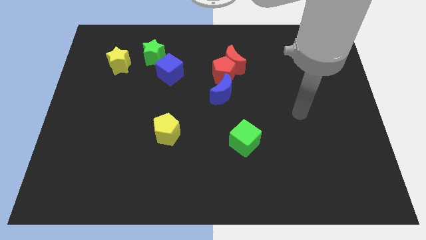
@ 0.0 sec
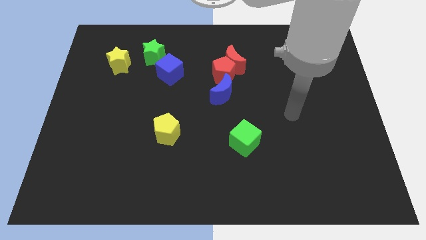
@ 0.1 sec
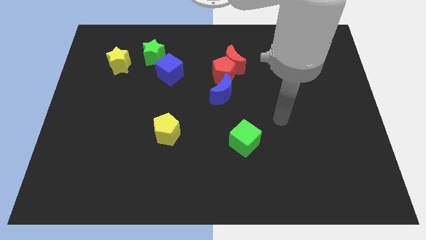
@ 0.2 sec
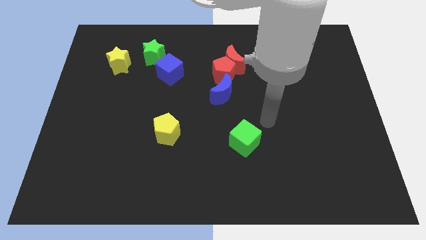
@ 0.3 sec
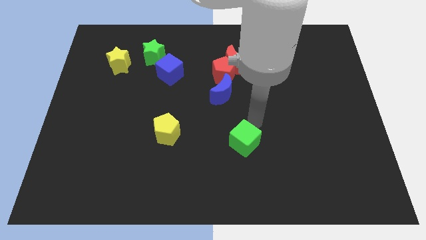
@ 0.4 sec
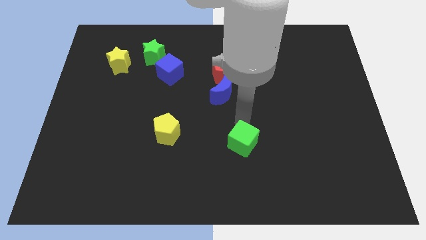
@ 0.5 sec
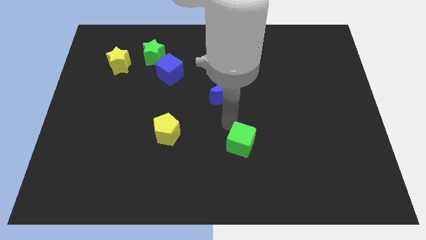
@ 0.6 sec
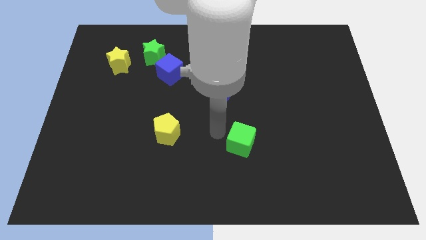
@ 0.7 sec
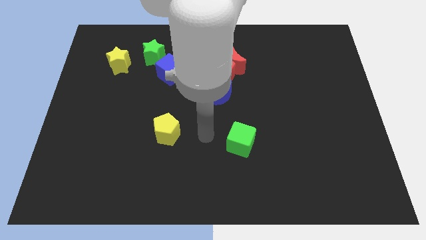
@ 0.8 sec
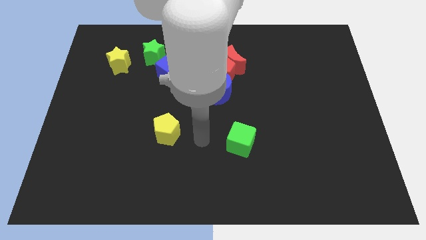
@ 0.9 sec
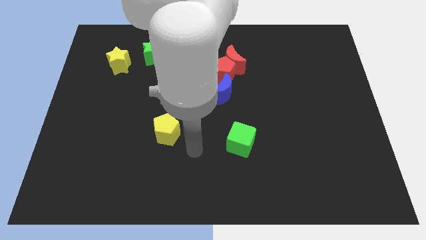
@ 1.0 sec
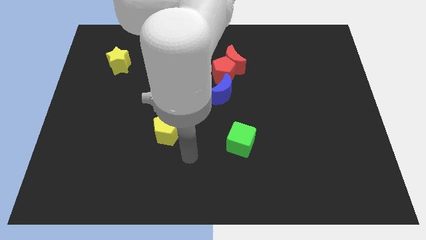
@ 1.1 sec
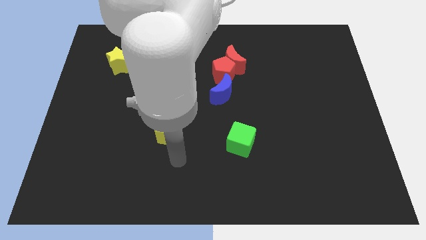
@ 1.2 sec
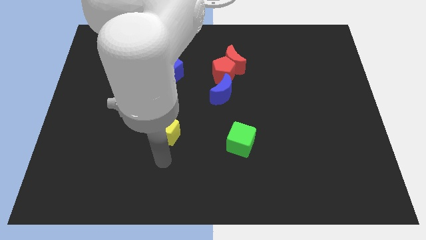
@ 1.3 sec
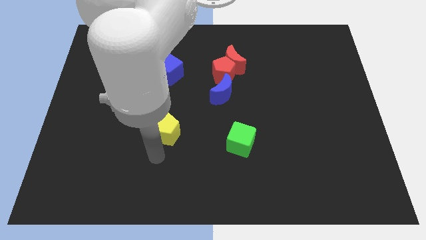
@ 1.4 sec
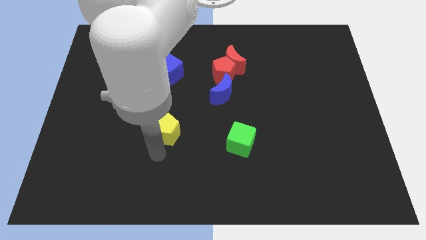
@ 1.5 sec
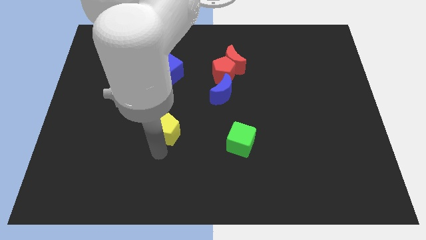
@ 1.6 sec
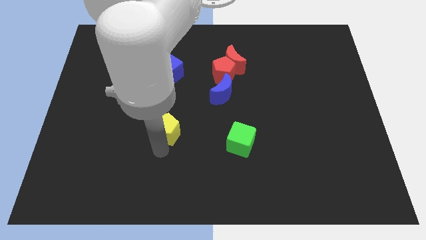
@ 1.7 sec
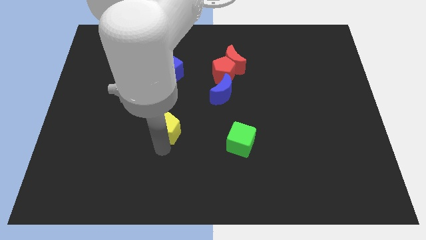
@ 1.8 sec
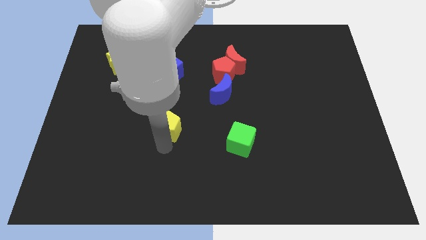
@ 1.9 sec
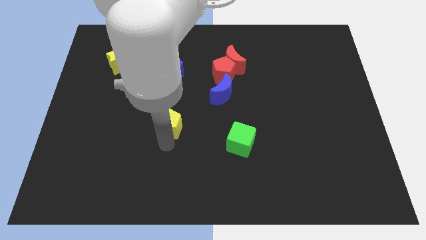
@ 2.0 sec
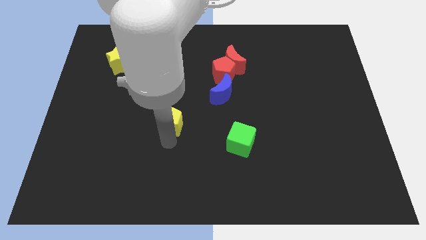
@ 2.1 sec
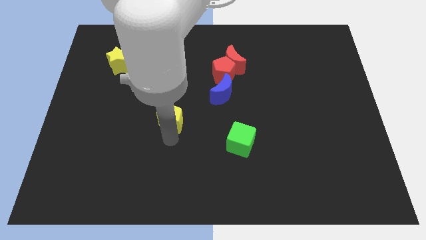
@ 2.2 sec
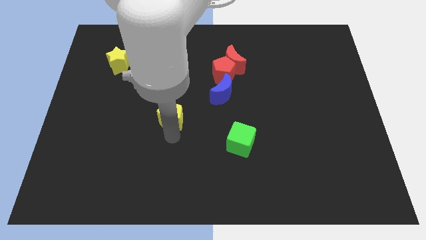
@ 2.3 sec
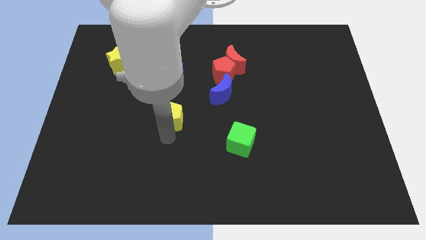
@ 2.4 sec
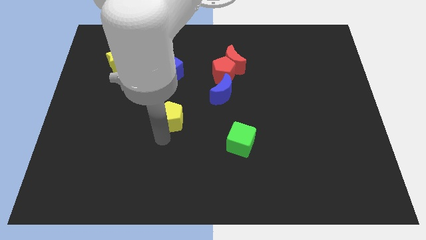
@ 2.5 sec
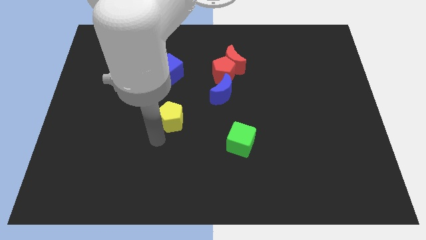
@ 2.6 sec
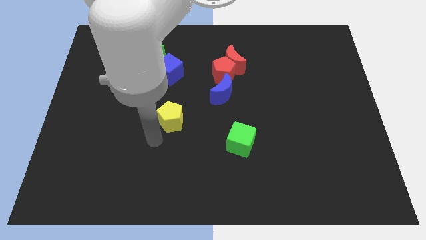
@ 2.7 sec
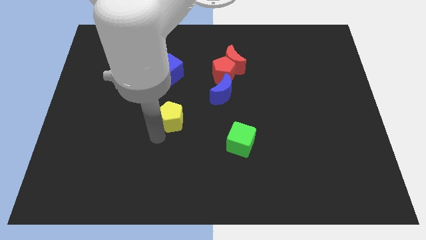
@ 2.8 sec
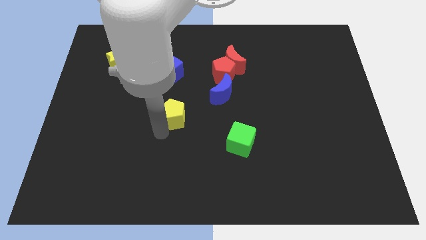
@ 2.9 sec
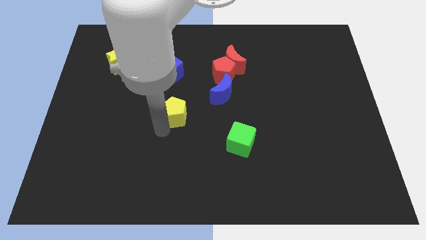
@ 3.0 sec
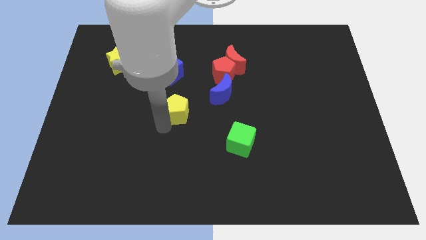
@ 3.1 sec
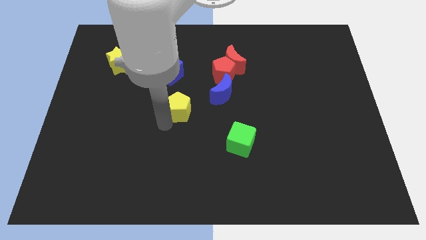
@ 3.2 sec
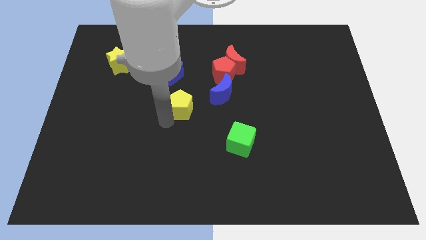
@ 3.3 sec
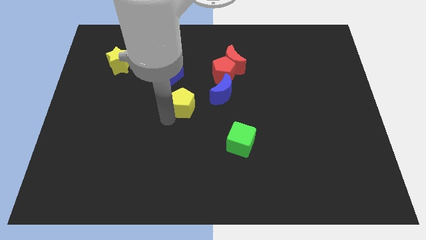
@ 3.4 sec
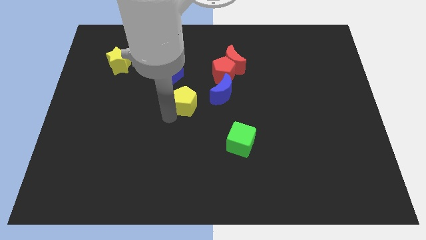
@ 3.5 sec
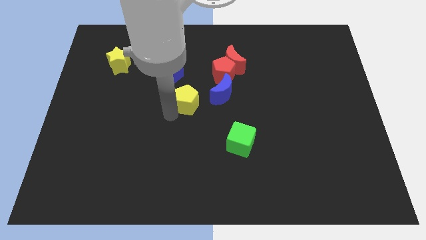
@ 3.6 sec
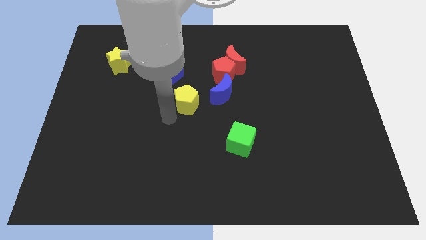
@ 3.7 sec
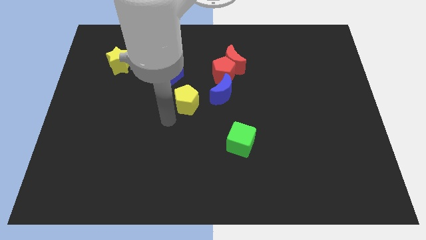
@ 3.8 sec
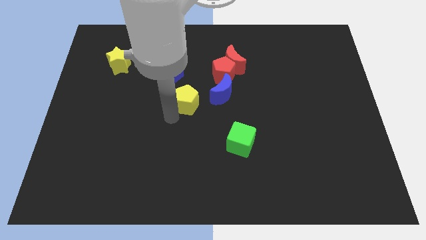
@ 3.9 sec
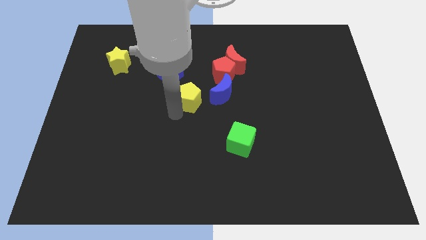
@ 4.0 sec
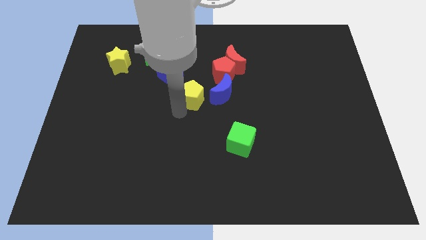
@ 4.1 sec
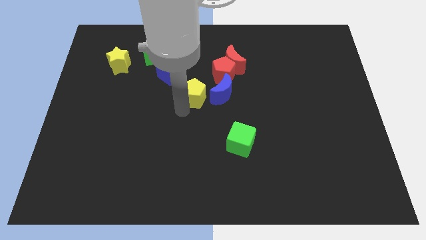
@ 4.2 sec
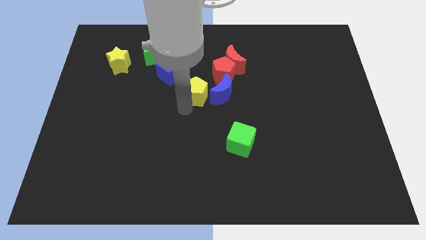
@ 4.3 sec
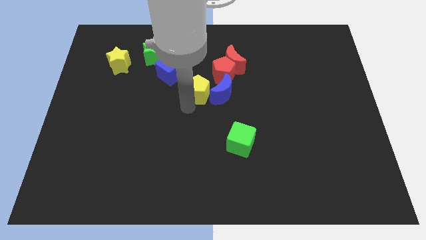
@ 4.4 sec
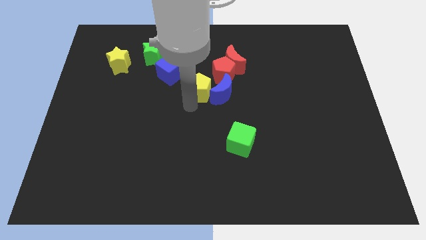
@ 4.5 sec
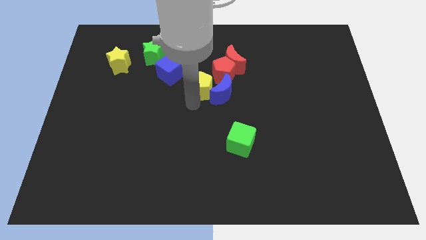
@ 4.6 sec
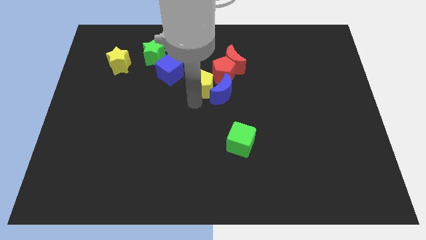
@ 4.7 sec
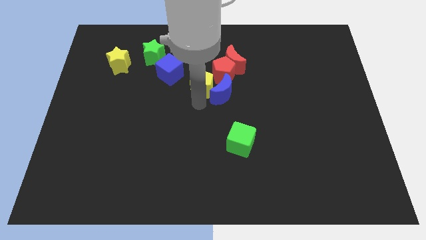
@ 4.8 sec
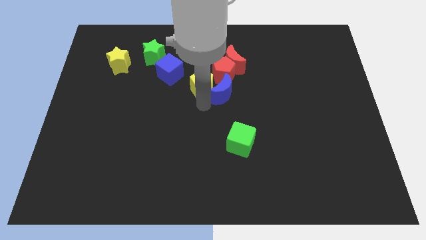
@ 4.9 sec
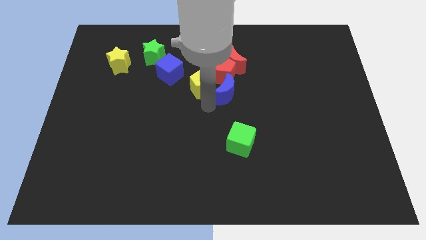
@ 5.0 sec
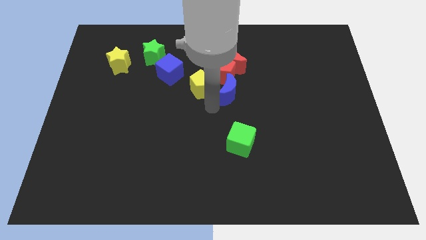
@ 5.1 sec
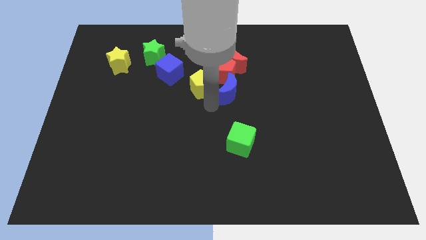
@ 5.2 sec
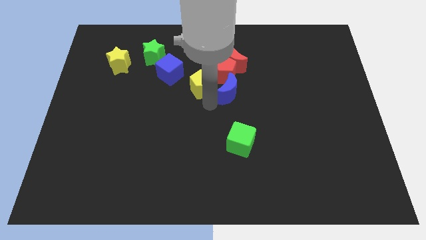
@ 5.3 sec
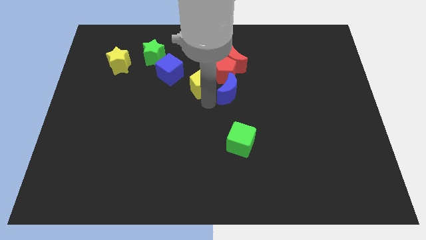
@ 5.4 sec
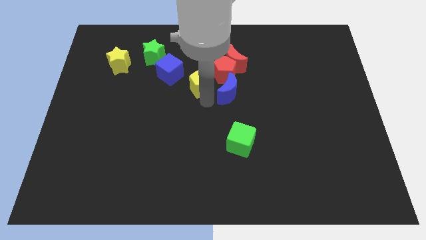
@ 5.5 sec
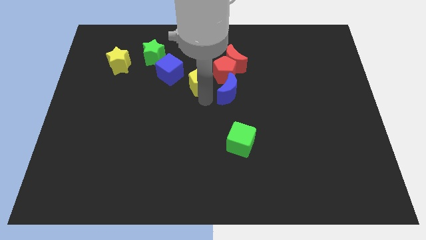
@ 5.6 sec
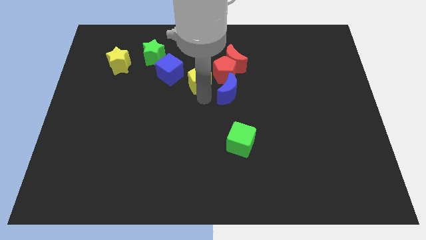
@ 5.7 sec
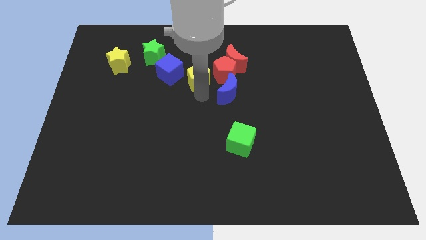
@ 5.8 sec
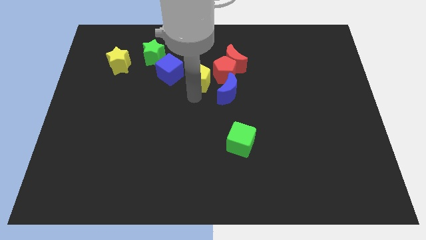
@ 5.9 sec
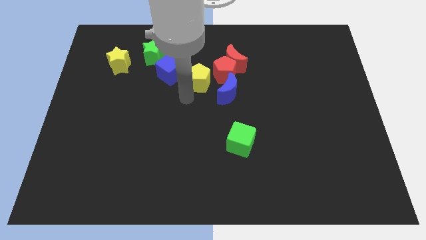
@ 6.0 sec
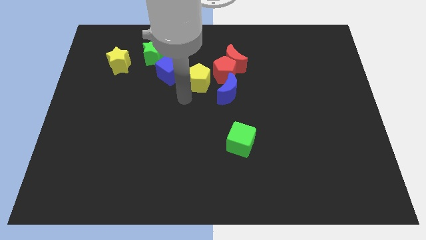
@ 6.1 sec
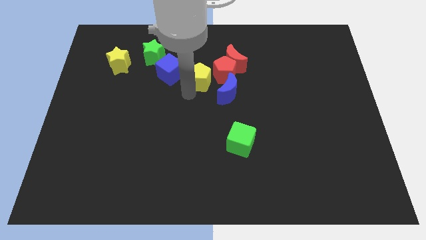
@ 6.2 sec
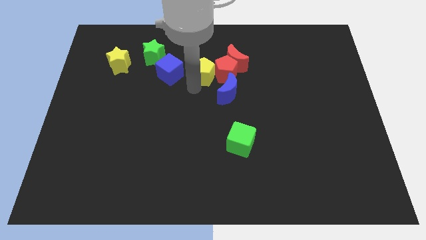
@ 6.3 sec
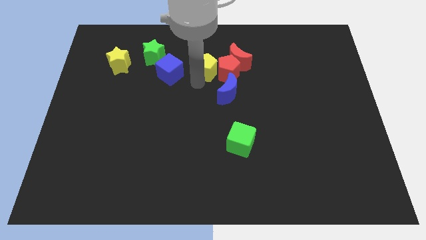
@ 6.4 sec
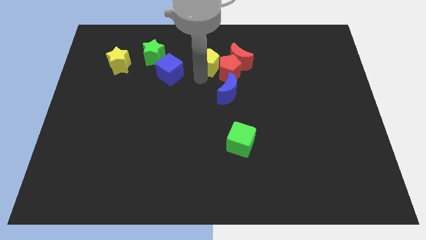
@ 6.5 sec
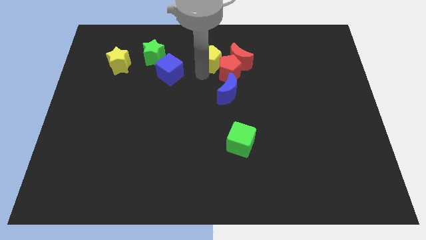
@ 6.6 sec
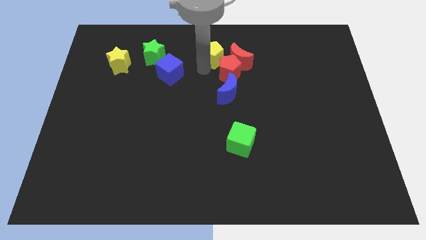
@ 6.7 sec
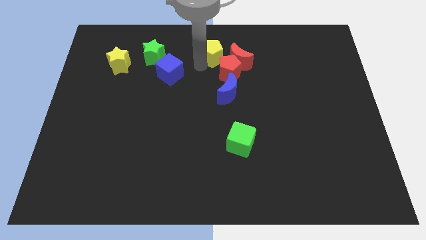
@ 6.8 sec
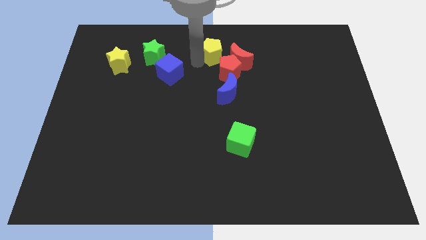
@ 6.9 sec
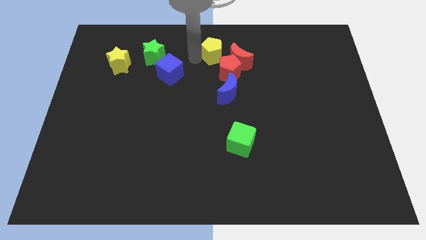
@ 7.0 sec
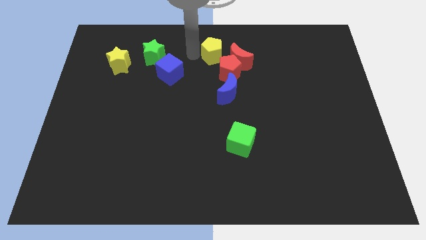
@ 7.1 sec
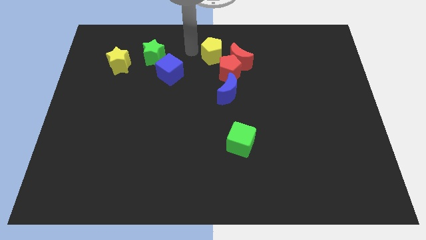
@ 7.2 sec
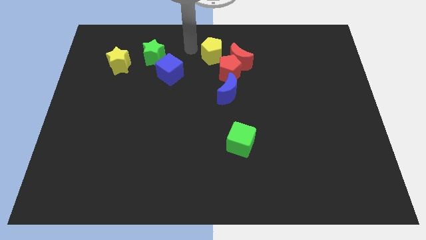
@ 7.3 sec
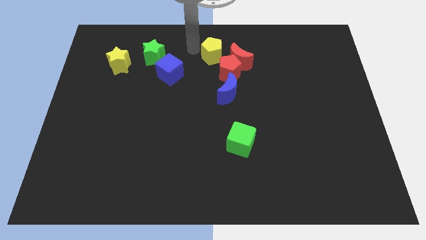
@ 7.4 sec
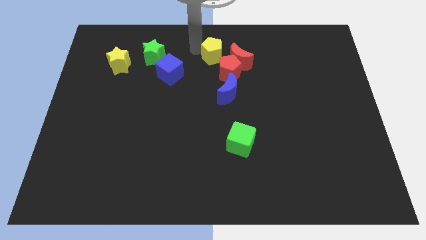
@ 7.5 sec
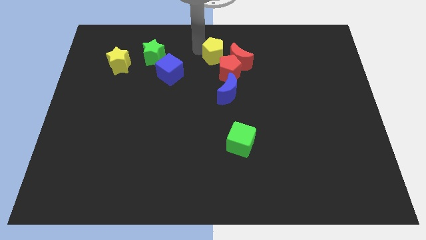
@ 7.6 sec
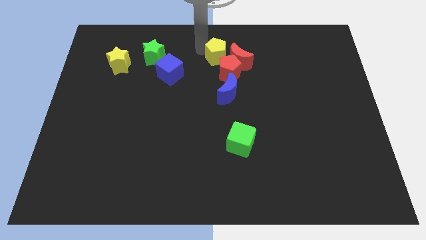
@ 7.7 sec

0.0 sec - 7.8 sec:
put the yellow pentagon next to the red moon
